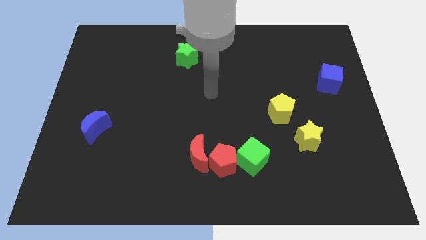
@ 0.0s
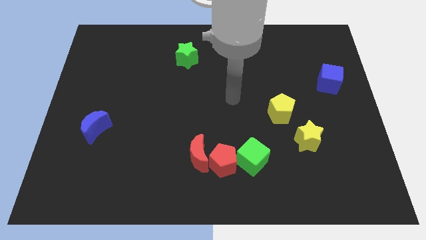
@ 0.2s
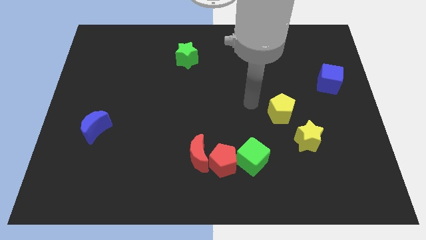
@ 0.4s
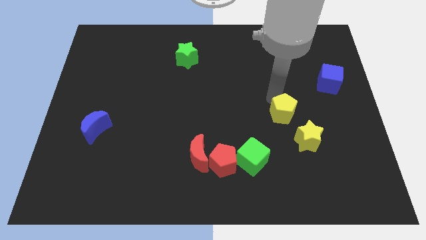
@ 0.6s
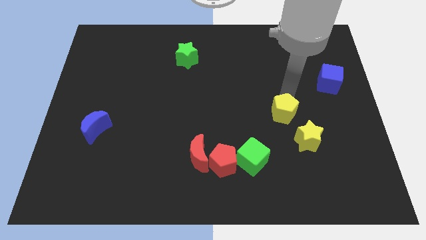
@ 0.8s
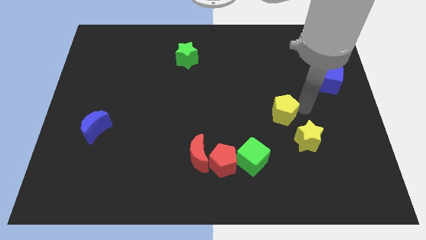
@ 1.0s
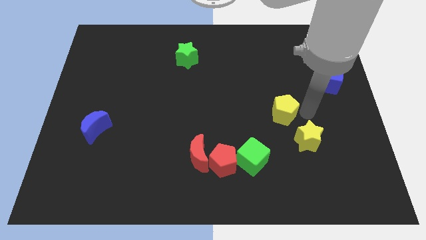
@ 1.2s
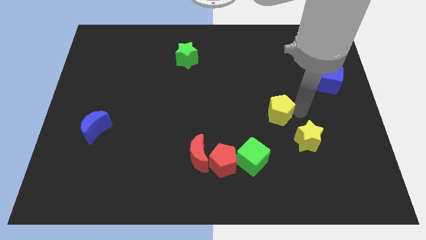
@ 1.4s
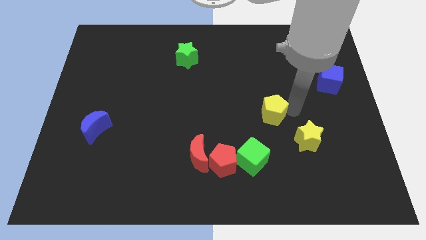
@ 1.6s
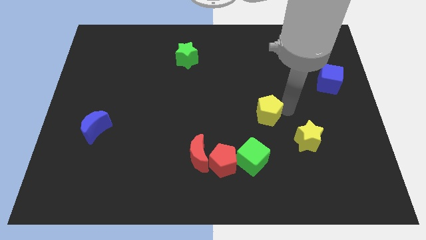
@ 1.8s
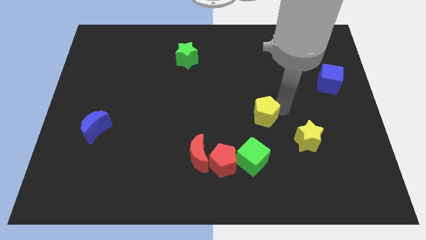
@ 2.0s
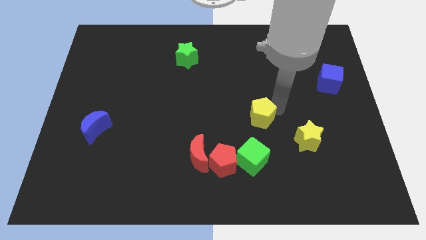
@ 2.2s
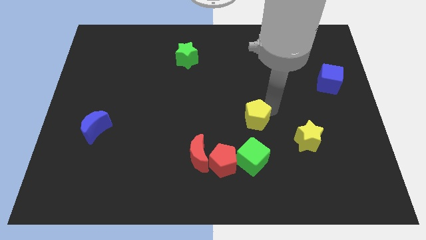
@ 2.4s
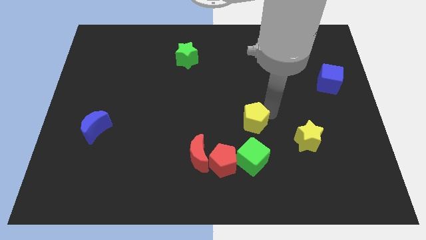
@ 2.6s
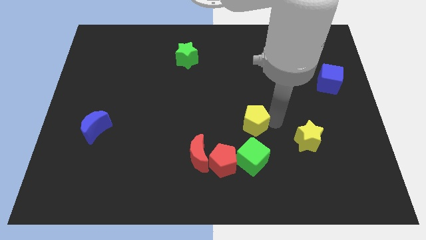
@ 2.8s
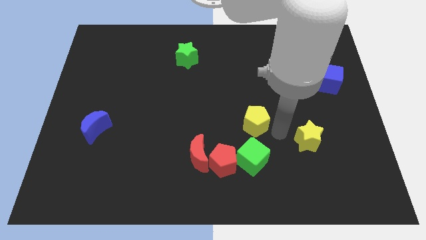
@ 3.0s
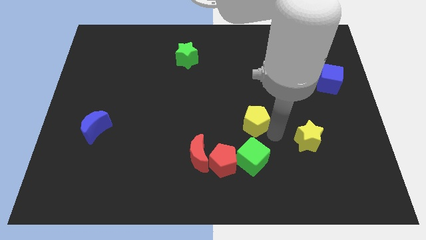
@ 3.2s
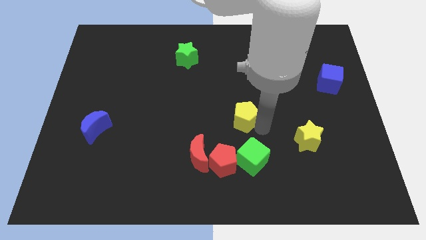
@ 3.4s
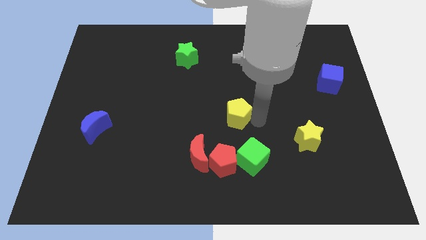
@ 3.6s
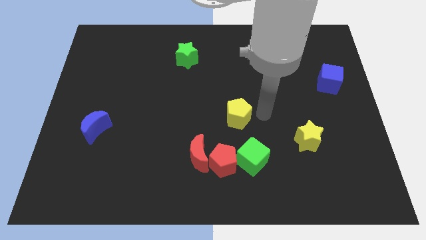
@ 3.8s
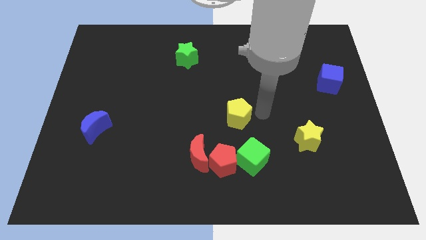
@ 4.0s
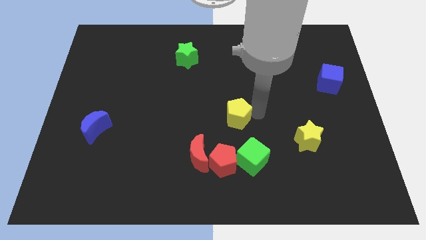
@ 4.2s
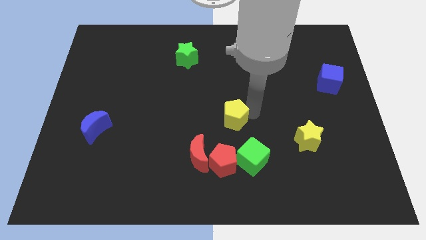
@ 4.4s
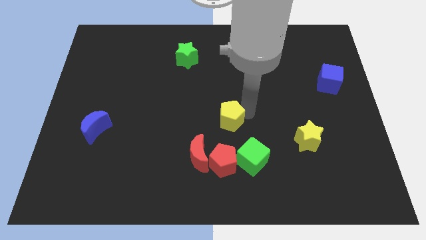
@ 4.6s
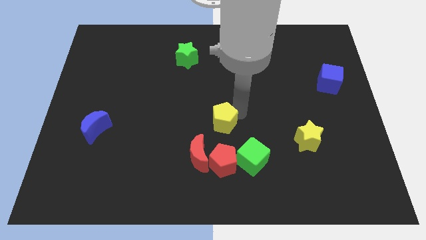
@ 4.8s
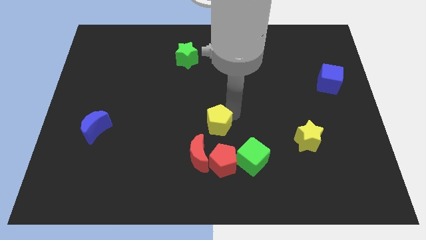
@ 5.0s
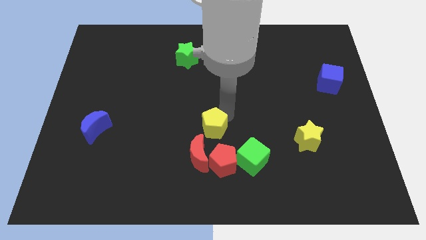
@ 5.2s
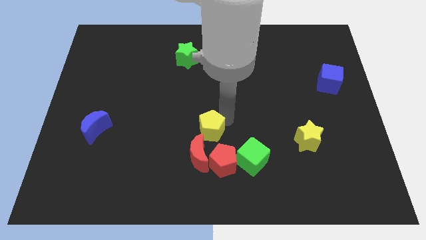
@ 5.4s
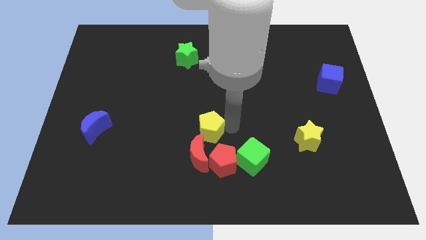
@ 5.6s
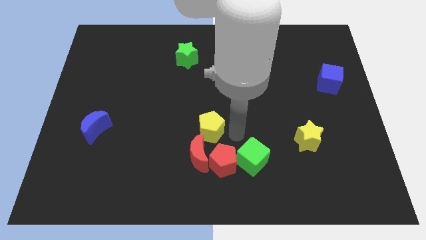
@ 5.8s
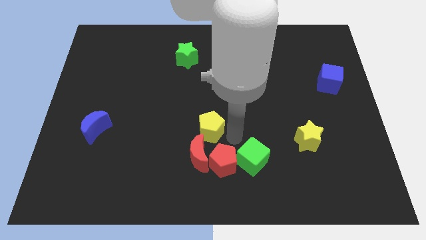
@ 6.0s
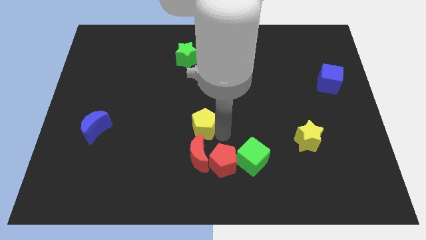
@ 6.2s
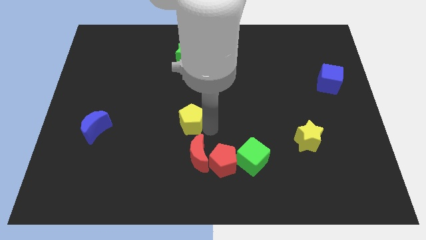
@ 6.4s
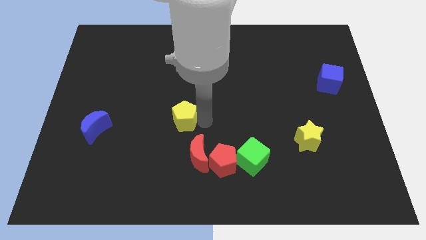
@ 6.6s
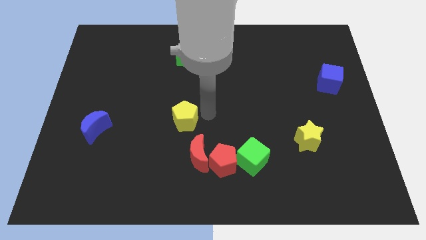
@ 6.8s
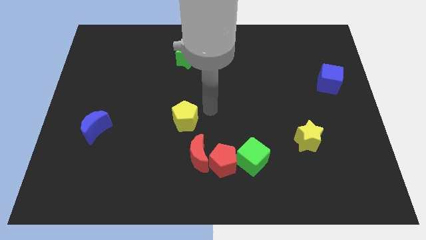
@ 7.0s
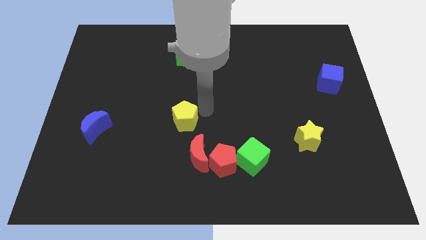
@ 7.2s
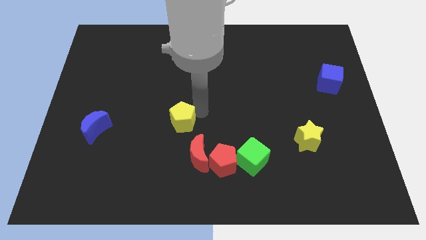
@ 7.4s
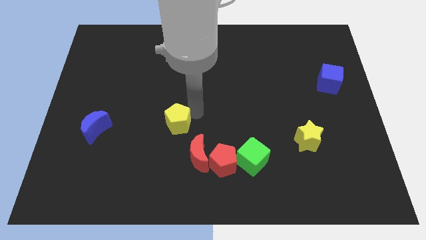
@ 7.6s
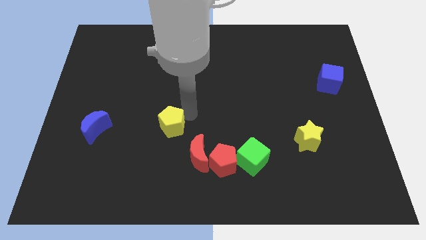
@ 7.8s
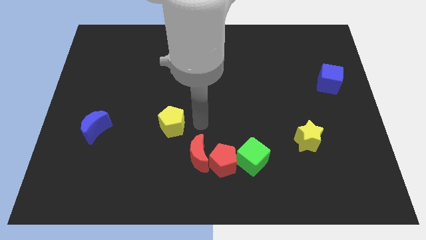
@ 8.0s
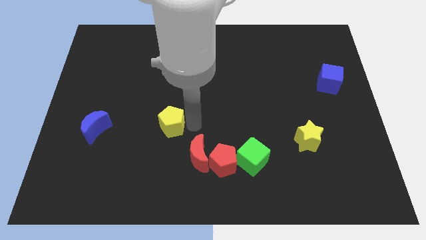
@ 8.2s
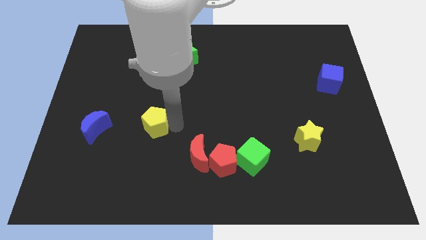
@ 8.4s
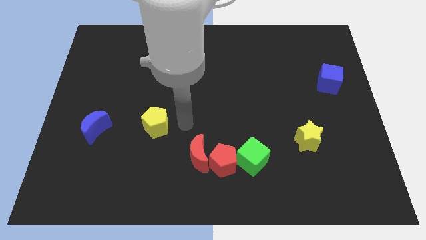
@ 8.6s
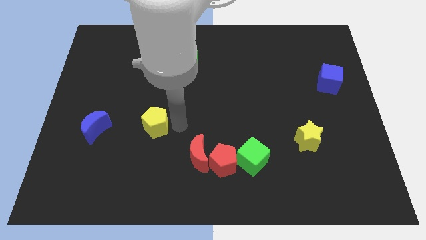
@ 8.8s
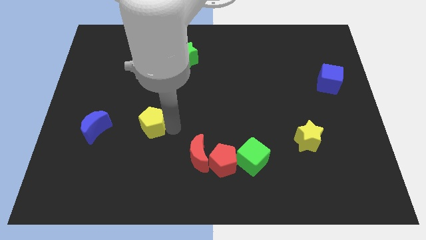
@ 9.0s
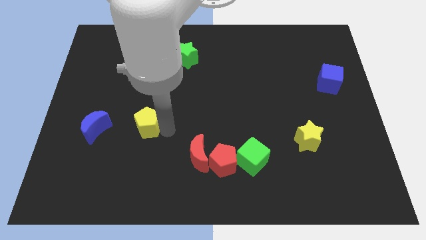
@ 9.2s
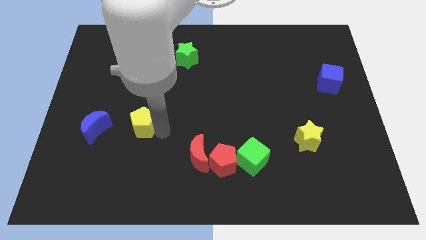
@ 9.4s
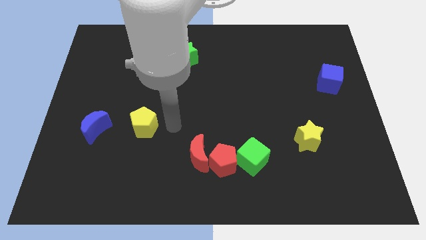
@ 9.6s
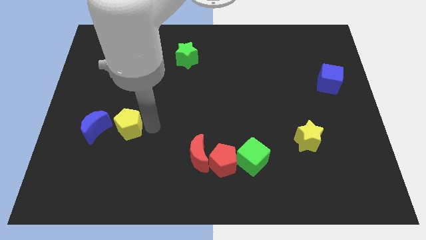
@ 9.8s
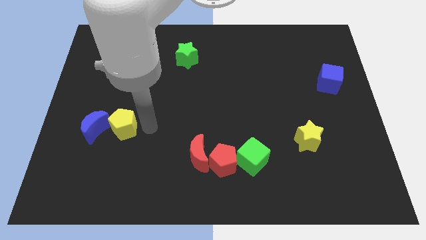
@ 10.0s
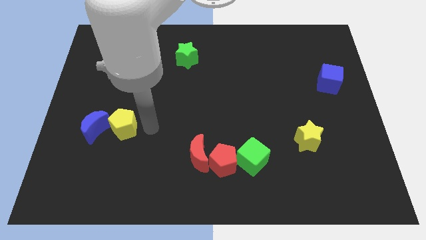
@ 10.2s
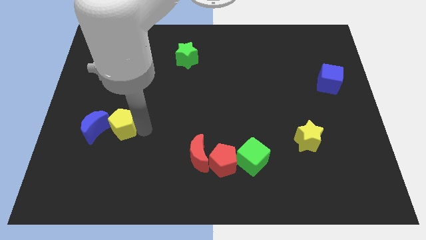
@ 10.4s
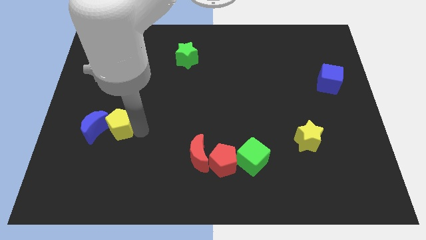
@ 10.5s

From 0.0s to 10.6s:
slide the yellow pentagon towards the blue moon

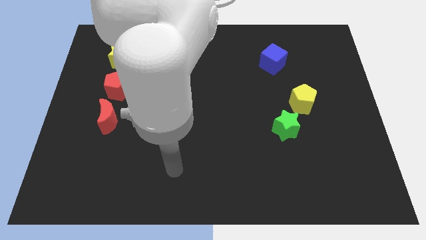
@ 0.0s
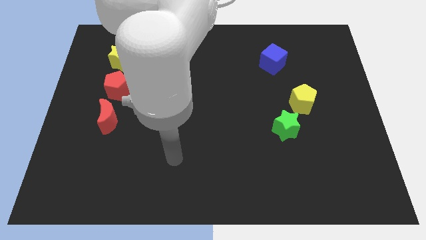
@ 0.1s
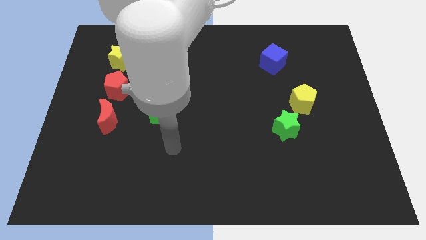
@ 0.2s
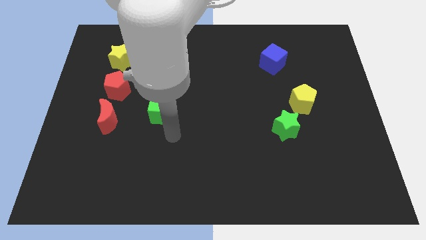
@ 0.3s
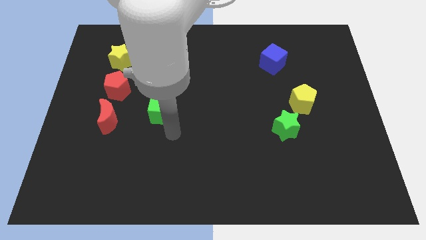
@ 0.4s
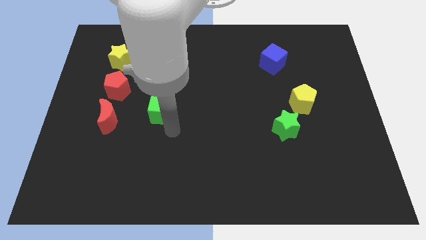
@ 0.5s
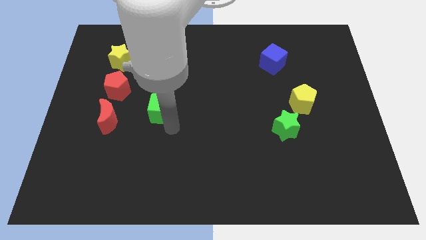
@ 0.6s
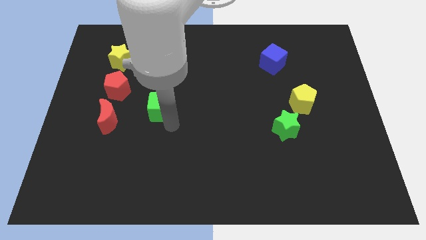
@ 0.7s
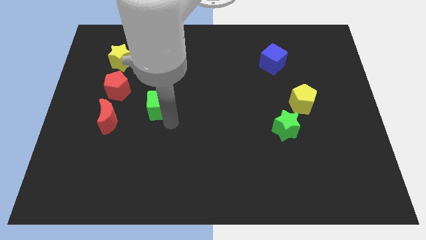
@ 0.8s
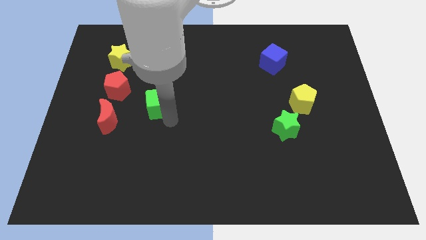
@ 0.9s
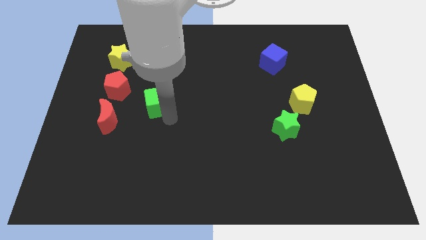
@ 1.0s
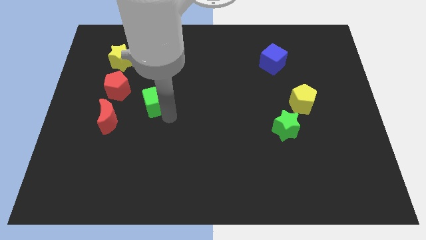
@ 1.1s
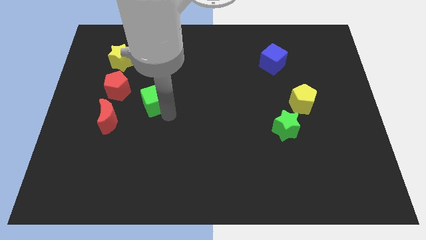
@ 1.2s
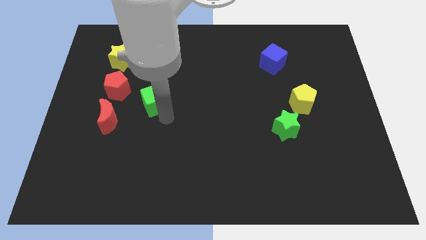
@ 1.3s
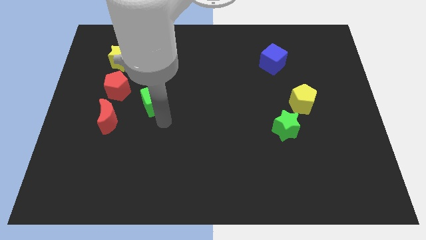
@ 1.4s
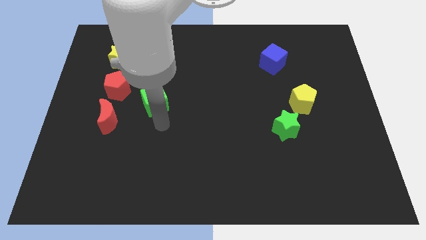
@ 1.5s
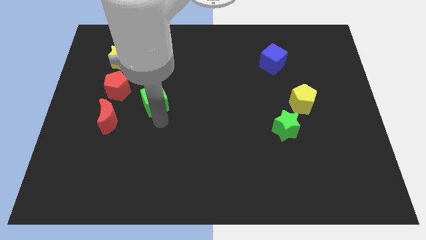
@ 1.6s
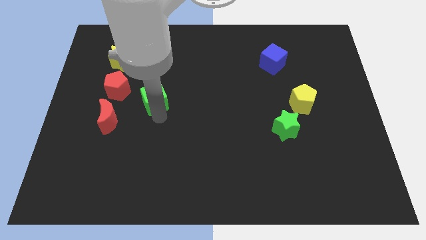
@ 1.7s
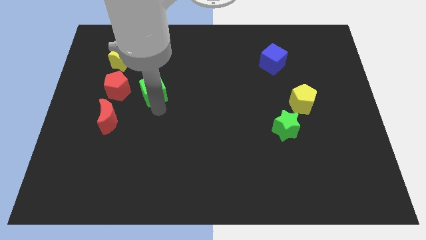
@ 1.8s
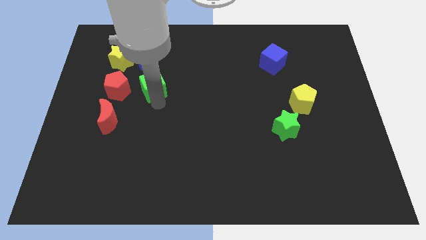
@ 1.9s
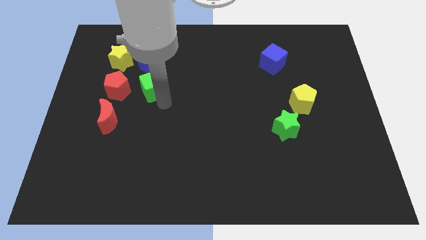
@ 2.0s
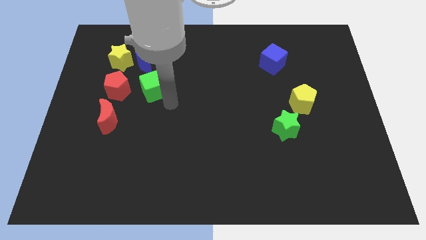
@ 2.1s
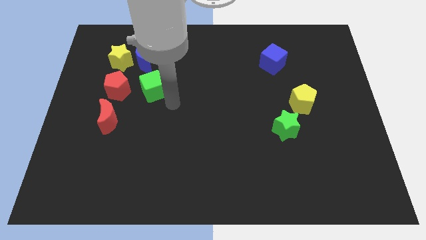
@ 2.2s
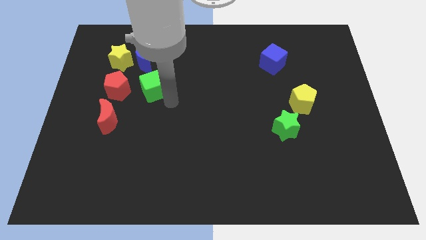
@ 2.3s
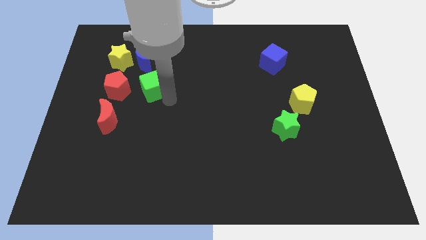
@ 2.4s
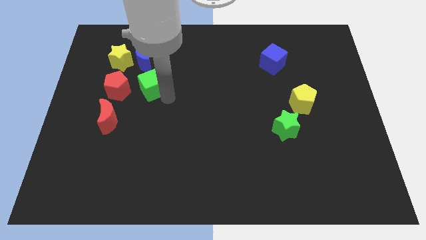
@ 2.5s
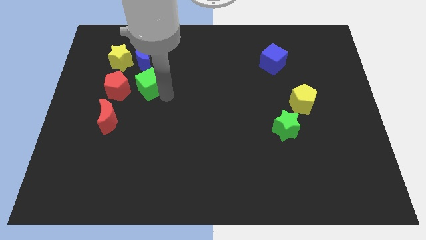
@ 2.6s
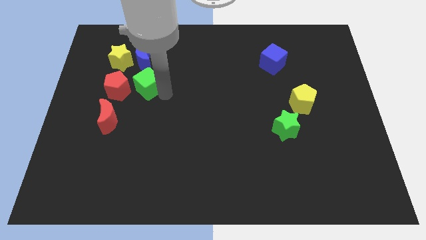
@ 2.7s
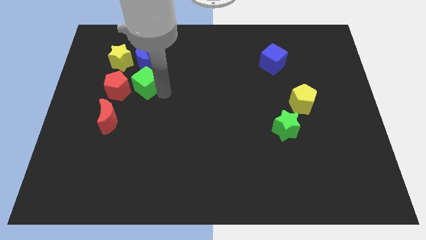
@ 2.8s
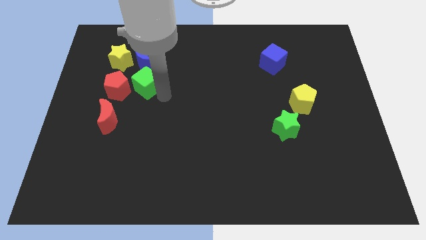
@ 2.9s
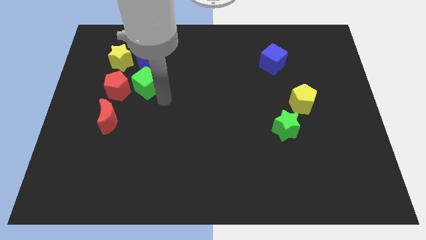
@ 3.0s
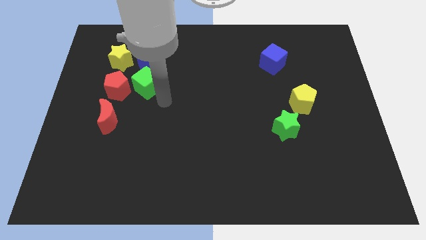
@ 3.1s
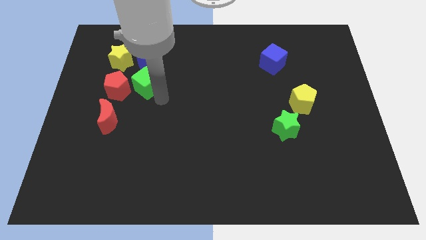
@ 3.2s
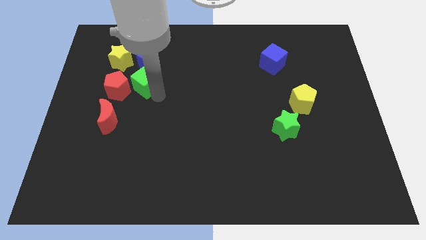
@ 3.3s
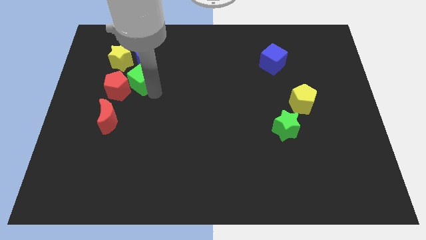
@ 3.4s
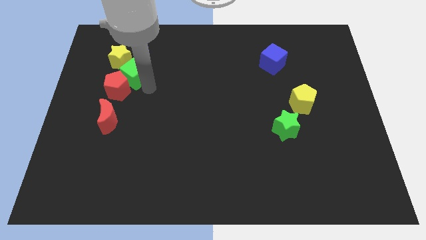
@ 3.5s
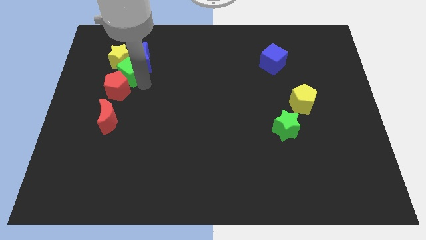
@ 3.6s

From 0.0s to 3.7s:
put the green cube towards the yellow star

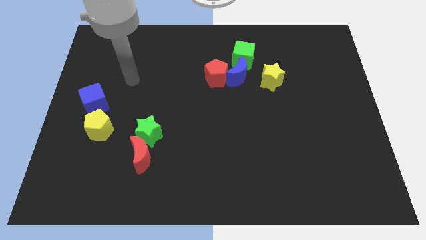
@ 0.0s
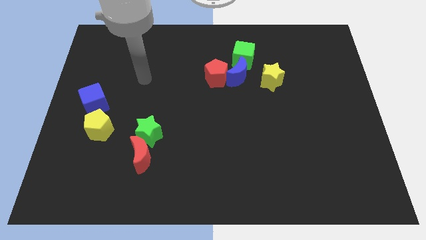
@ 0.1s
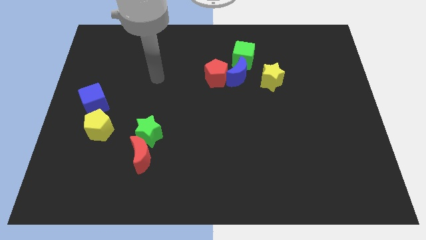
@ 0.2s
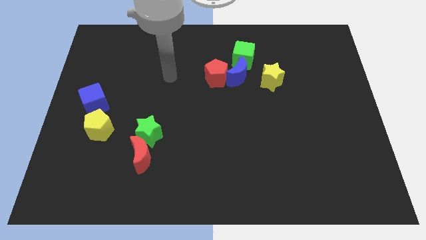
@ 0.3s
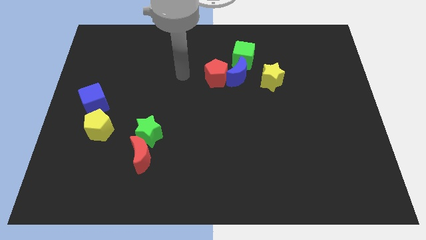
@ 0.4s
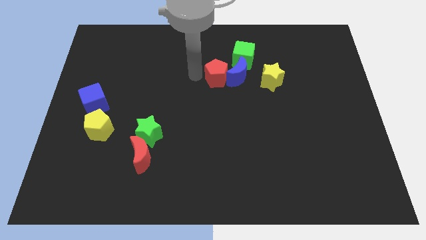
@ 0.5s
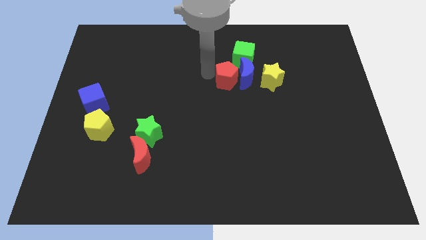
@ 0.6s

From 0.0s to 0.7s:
put the blue moon to the yellow star
